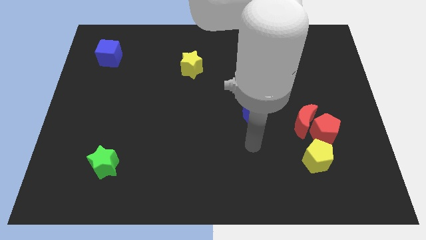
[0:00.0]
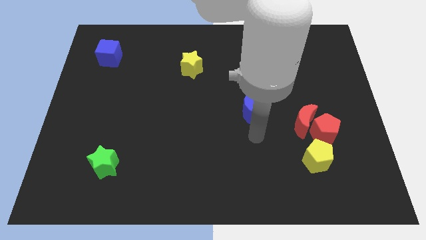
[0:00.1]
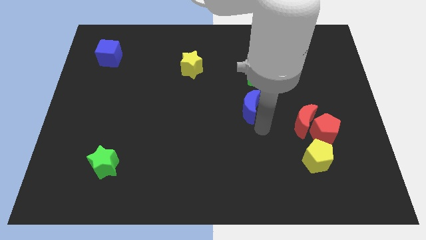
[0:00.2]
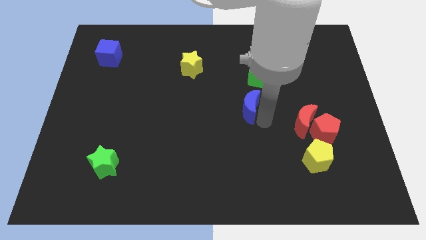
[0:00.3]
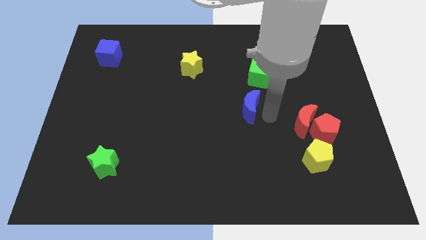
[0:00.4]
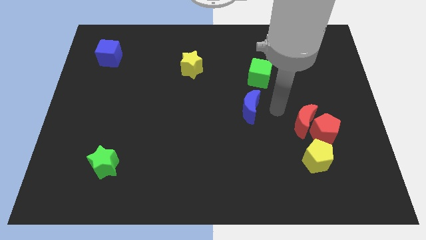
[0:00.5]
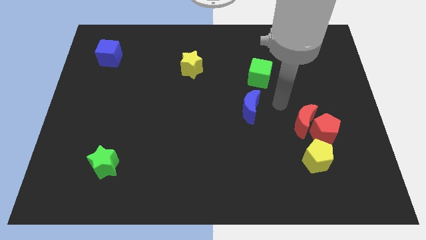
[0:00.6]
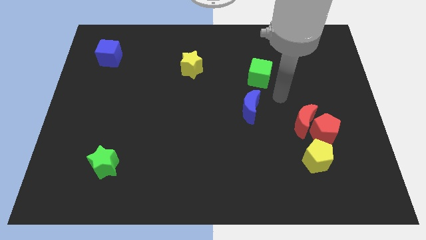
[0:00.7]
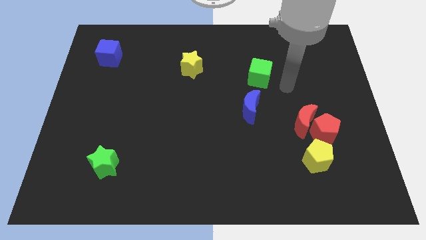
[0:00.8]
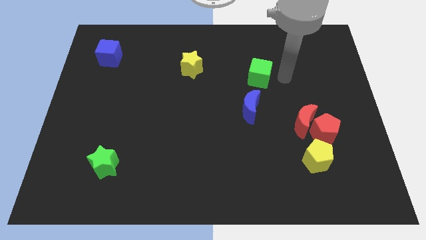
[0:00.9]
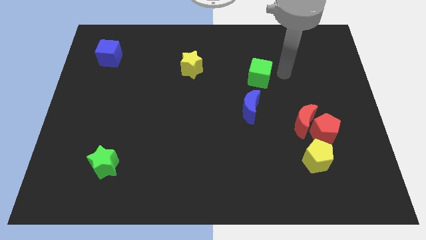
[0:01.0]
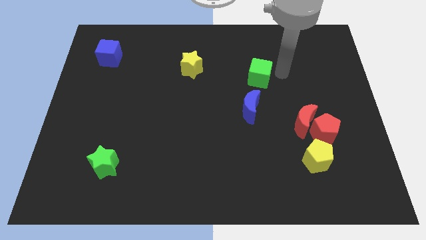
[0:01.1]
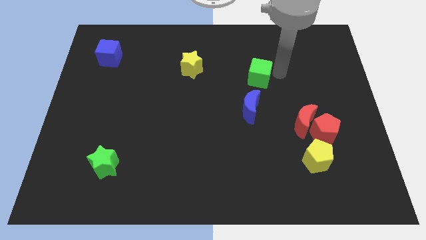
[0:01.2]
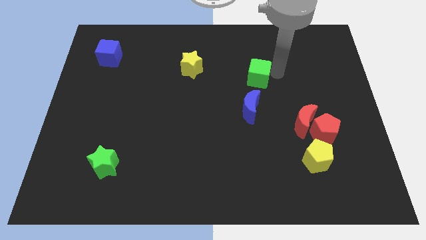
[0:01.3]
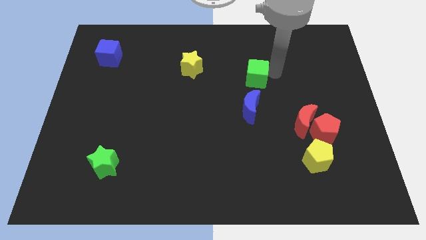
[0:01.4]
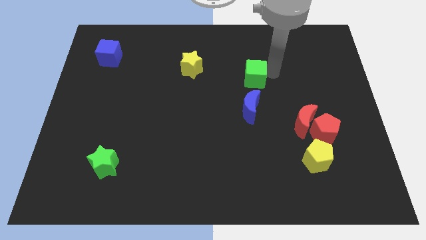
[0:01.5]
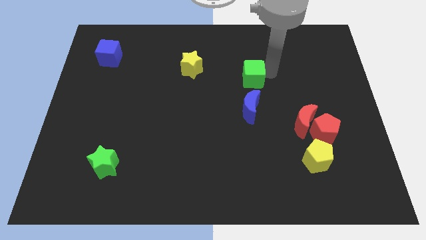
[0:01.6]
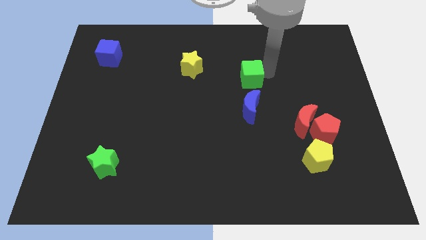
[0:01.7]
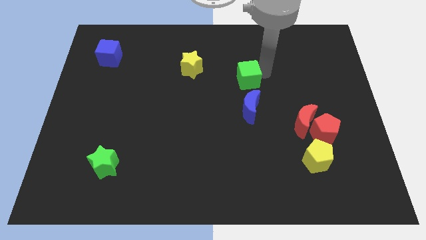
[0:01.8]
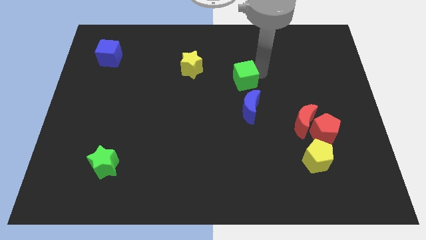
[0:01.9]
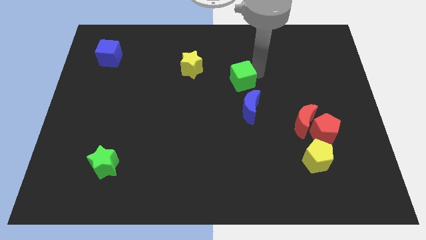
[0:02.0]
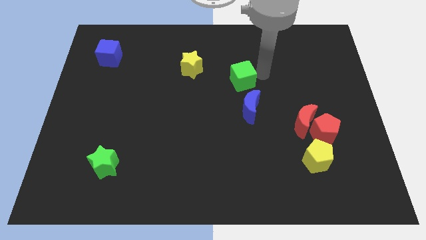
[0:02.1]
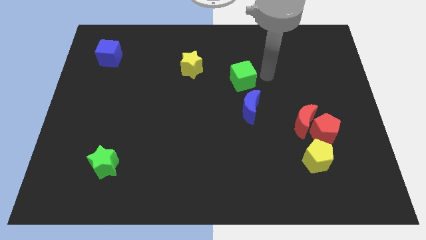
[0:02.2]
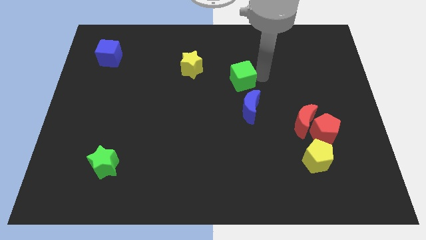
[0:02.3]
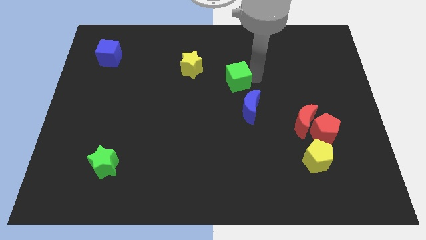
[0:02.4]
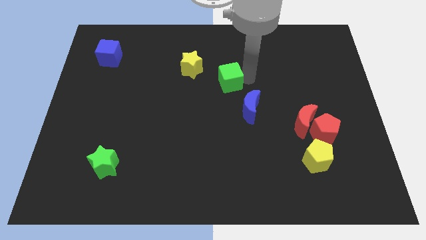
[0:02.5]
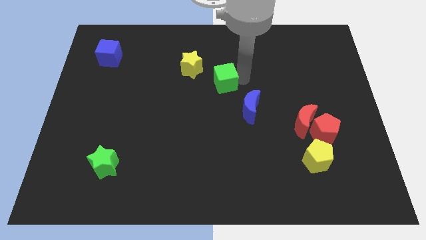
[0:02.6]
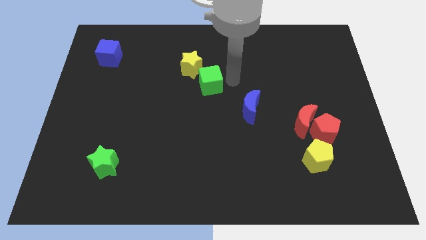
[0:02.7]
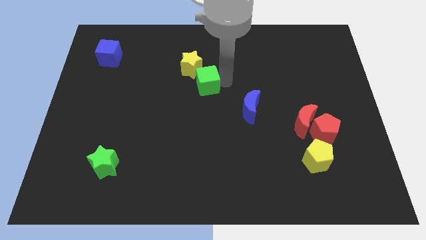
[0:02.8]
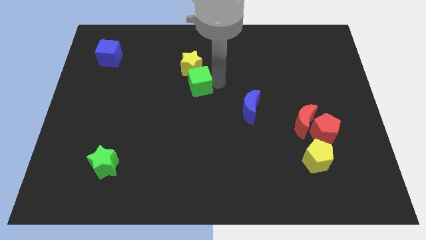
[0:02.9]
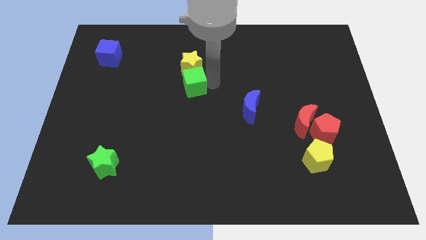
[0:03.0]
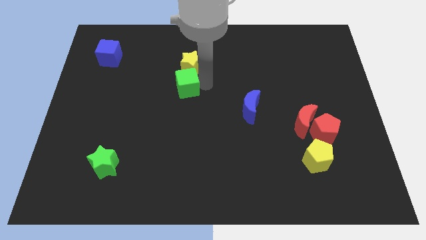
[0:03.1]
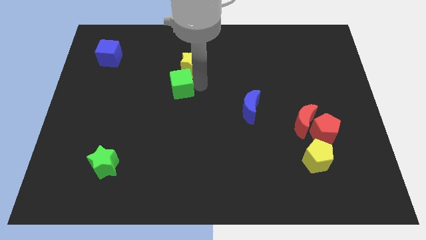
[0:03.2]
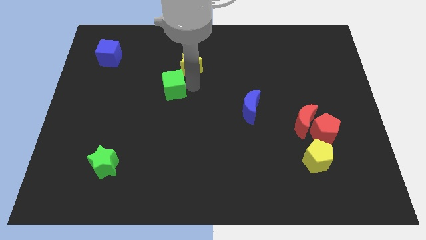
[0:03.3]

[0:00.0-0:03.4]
push the green cube left

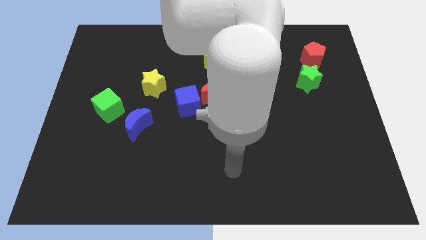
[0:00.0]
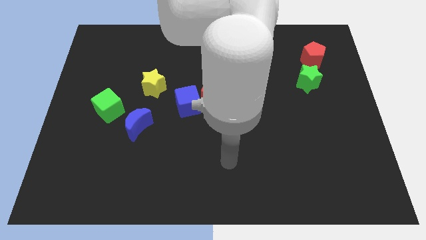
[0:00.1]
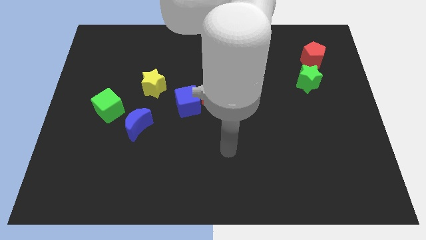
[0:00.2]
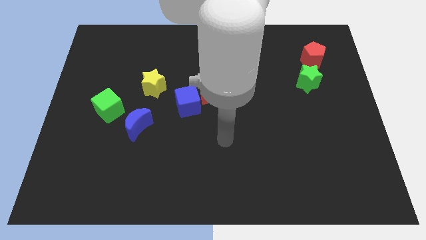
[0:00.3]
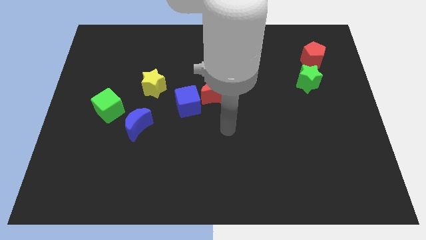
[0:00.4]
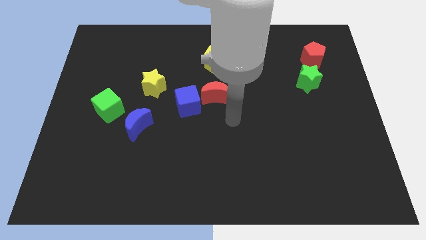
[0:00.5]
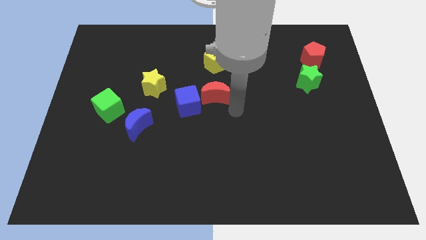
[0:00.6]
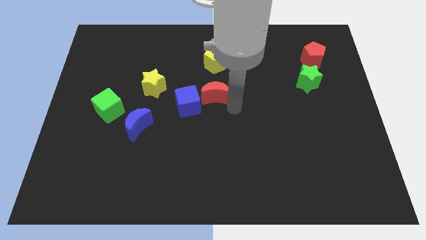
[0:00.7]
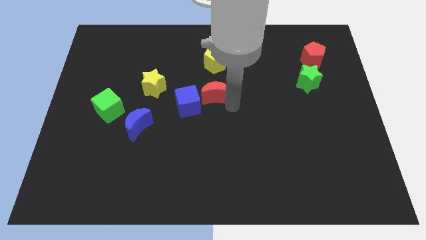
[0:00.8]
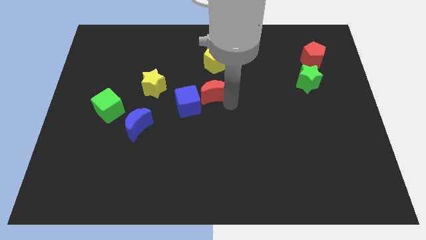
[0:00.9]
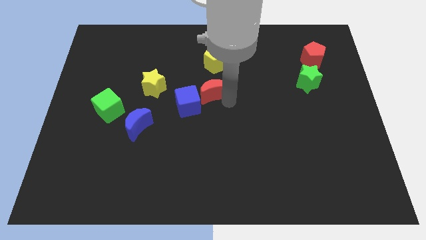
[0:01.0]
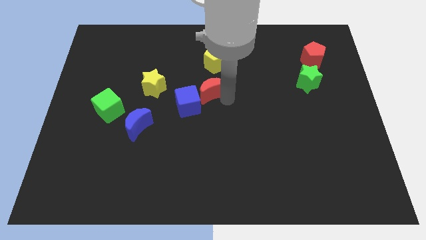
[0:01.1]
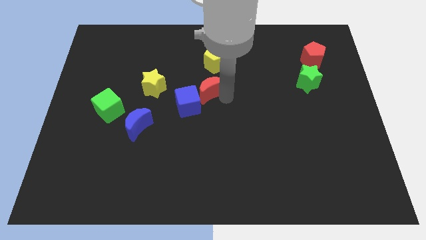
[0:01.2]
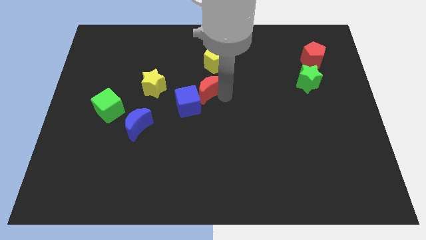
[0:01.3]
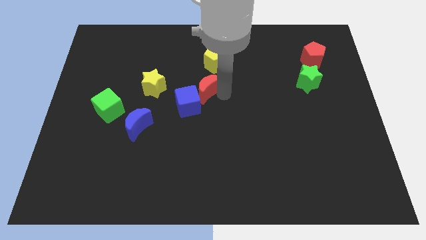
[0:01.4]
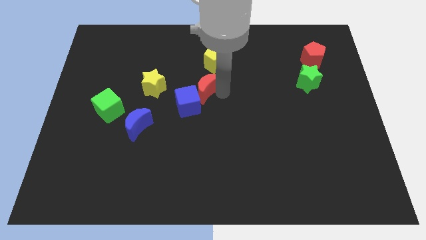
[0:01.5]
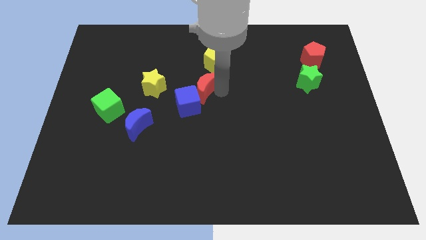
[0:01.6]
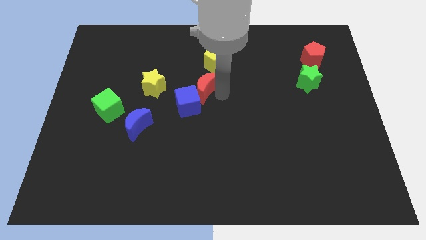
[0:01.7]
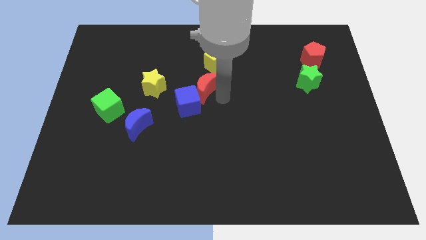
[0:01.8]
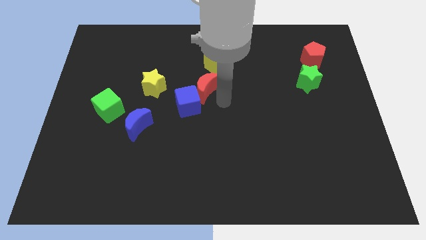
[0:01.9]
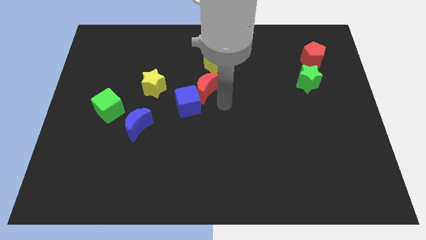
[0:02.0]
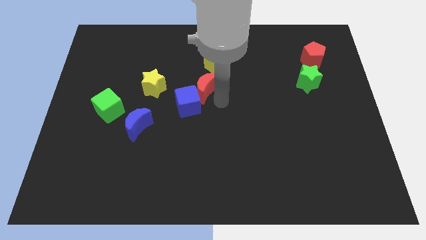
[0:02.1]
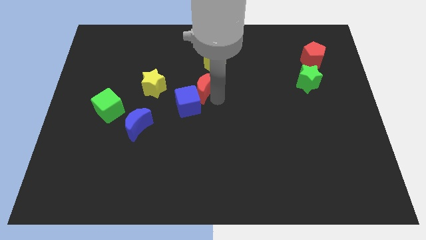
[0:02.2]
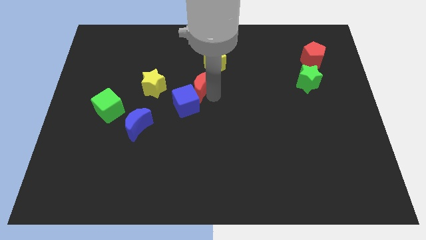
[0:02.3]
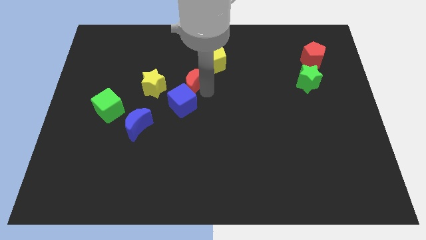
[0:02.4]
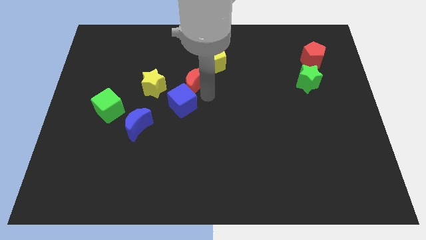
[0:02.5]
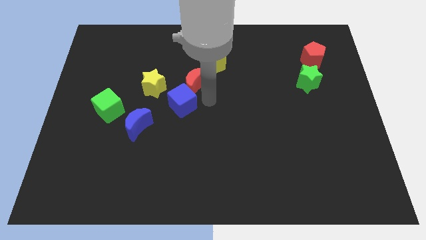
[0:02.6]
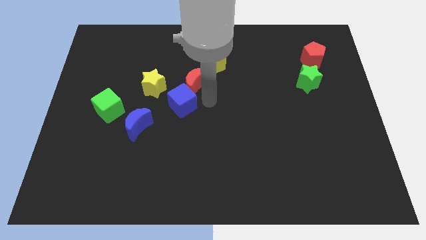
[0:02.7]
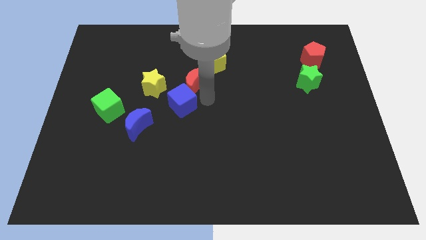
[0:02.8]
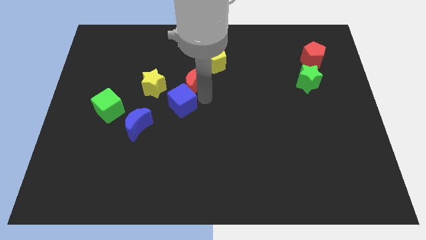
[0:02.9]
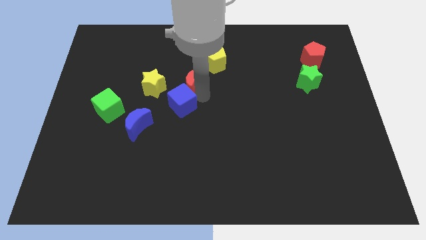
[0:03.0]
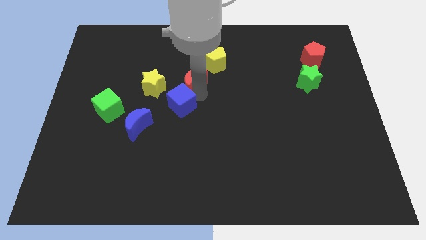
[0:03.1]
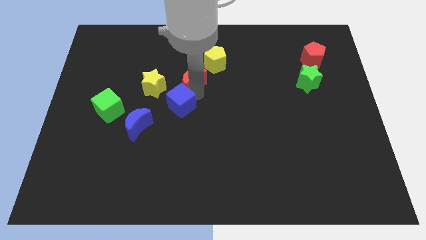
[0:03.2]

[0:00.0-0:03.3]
push the red moon a bit diagonally up and left

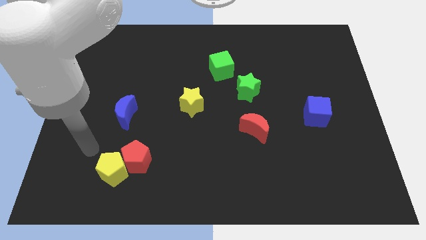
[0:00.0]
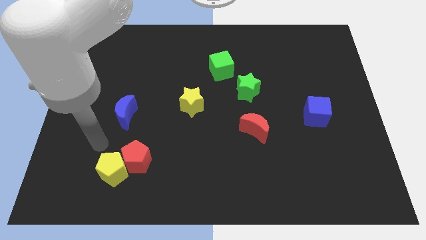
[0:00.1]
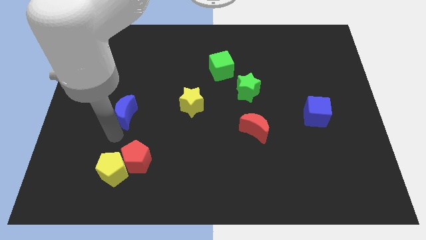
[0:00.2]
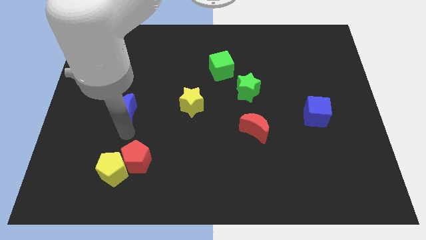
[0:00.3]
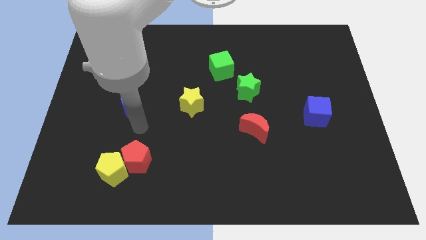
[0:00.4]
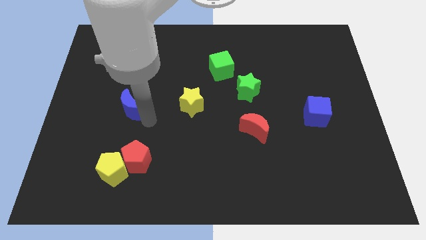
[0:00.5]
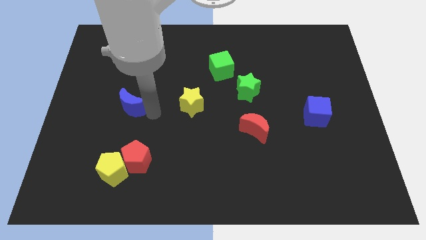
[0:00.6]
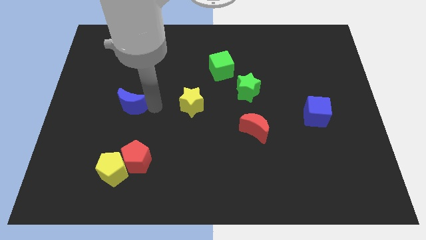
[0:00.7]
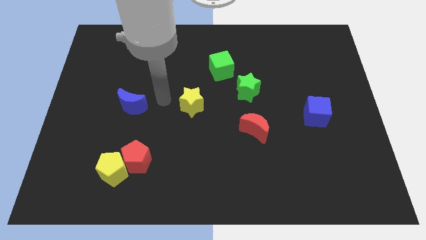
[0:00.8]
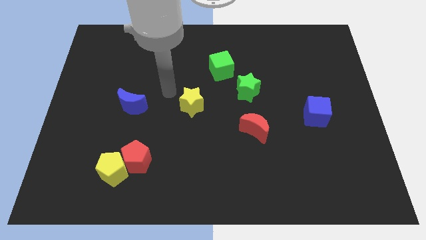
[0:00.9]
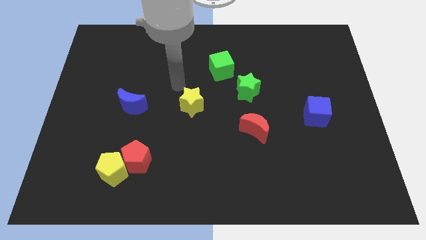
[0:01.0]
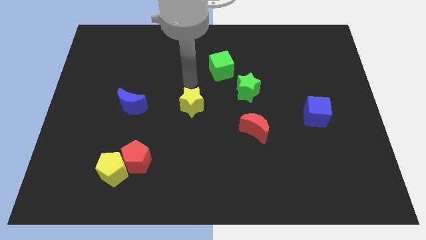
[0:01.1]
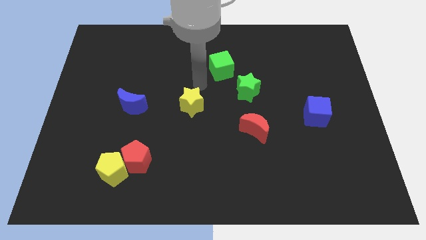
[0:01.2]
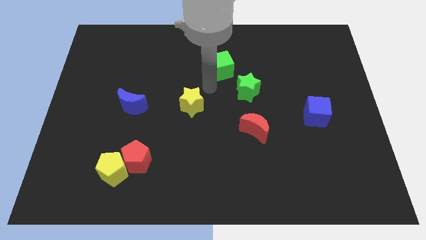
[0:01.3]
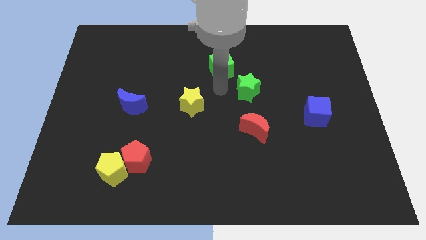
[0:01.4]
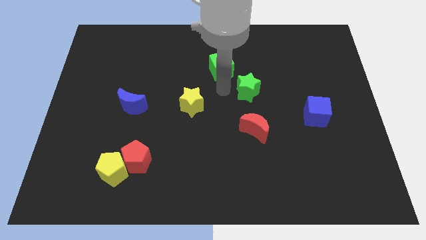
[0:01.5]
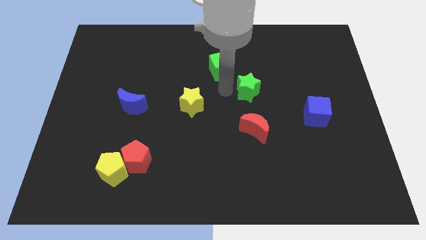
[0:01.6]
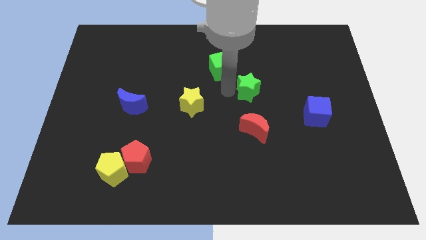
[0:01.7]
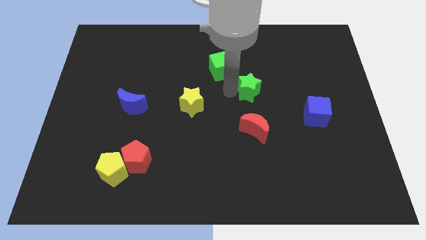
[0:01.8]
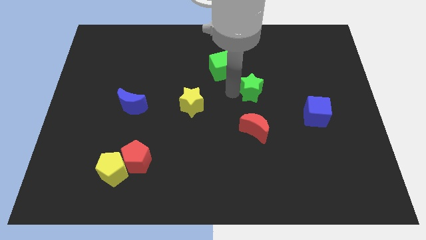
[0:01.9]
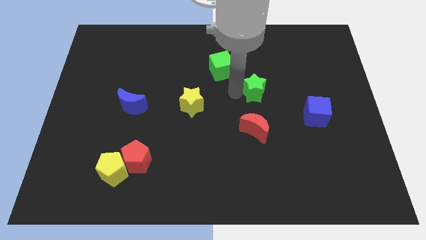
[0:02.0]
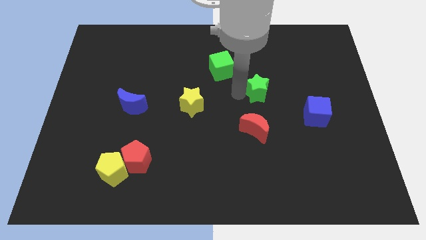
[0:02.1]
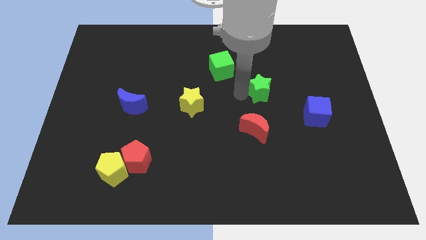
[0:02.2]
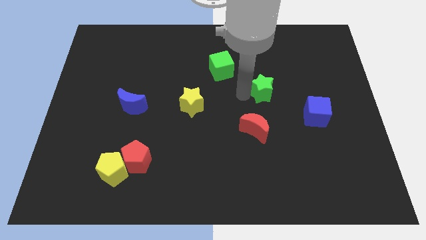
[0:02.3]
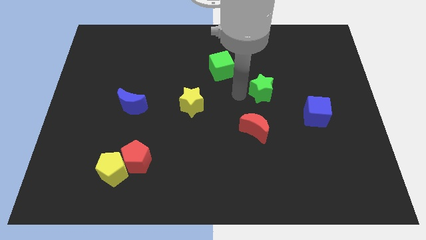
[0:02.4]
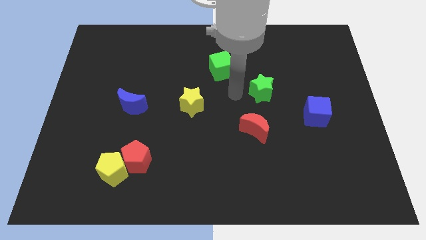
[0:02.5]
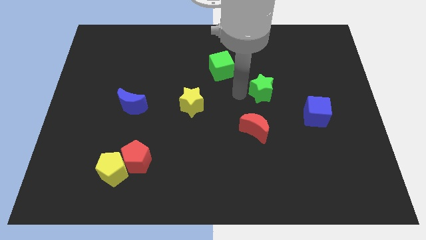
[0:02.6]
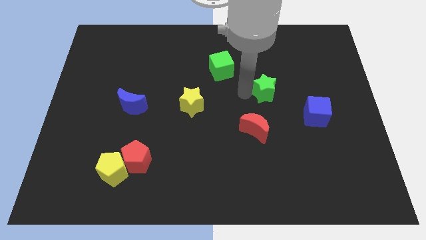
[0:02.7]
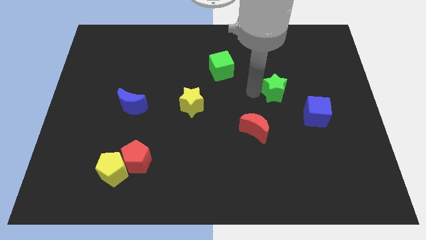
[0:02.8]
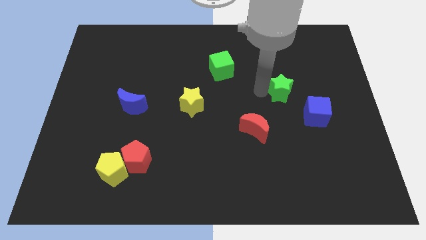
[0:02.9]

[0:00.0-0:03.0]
push the green star to the right a little
